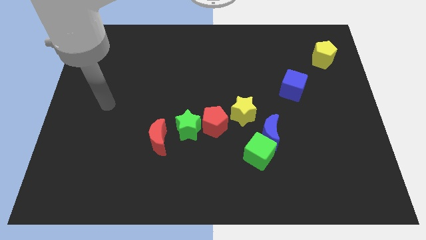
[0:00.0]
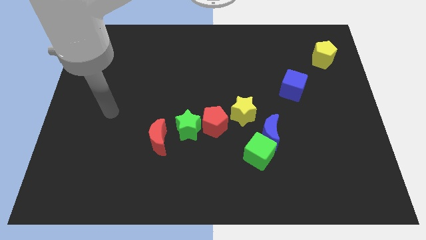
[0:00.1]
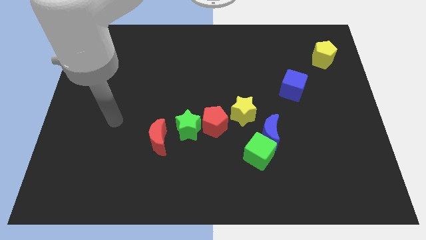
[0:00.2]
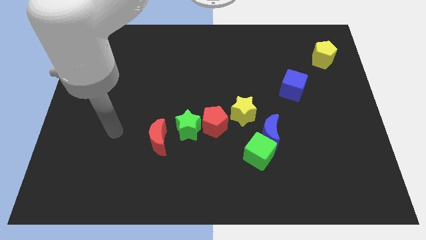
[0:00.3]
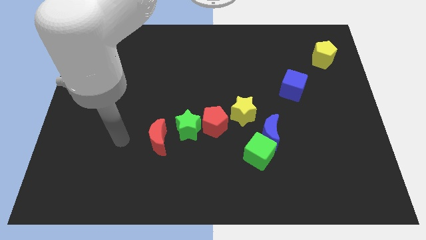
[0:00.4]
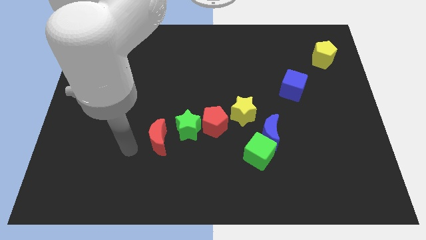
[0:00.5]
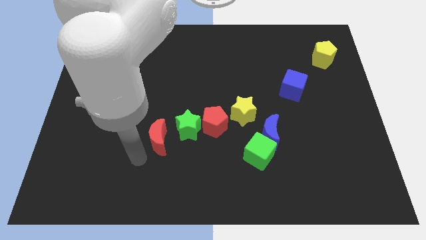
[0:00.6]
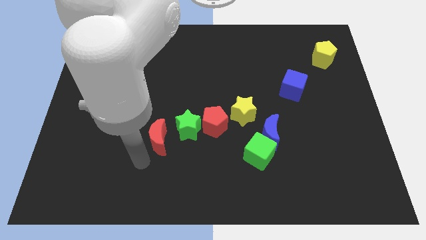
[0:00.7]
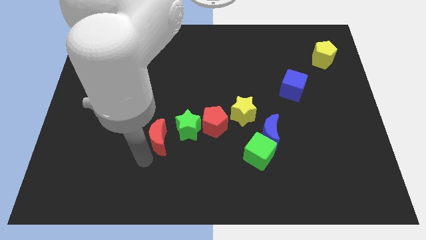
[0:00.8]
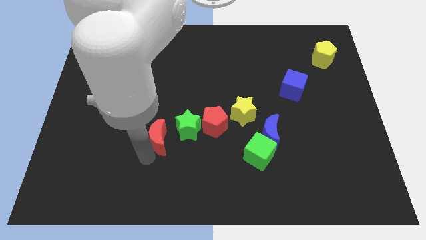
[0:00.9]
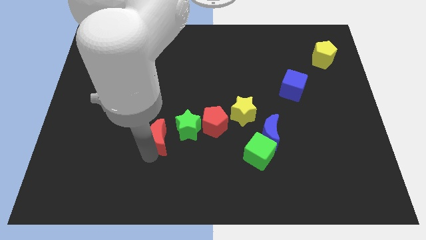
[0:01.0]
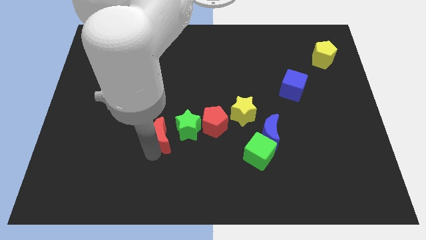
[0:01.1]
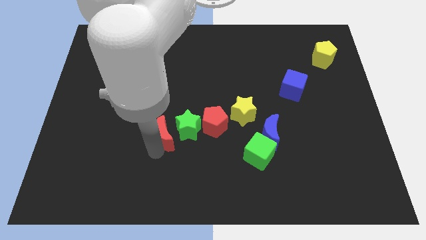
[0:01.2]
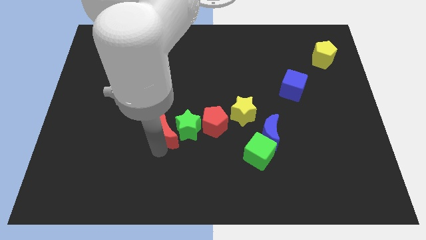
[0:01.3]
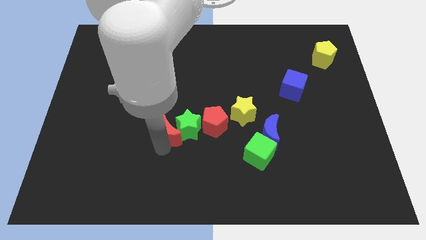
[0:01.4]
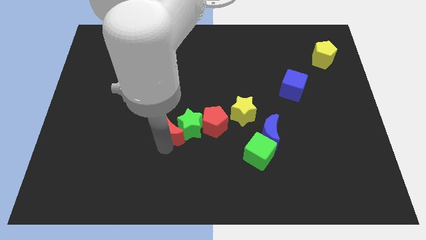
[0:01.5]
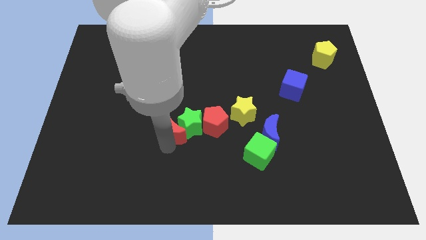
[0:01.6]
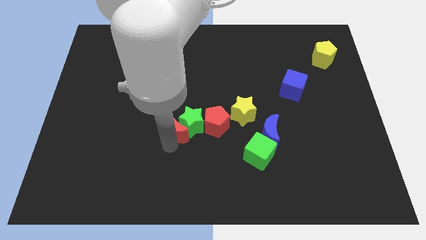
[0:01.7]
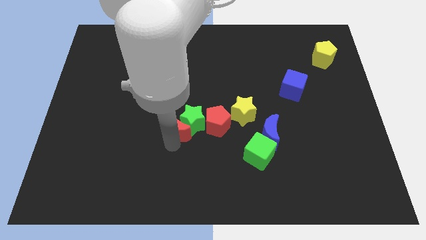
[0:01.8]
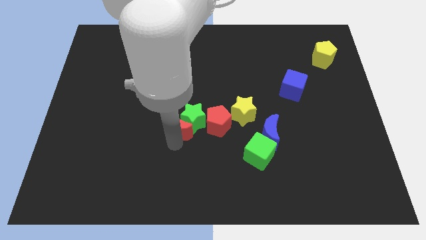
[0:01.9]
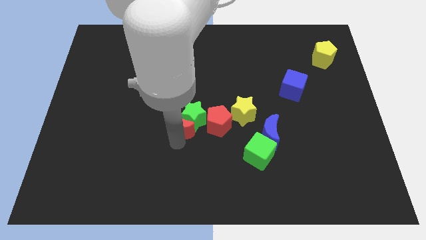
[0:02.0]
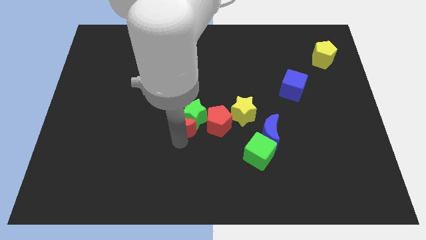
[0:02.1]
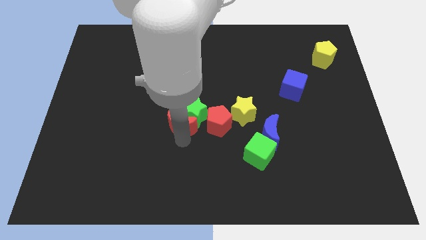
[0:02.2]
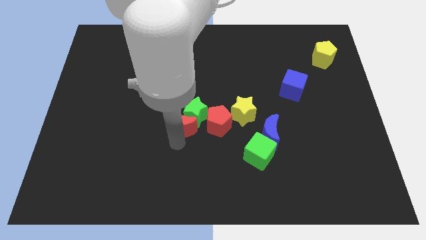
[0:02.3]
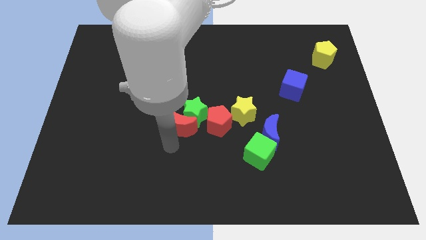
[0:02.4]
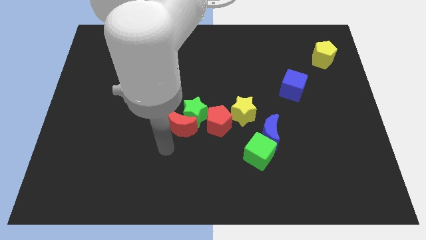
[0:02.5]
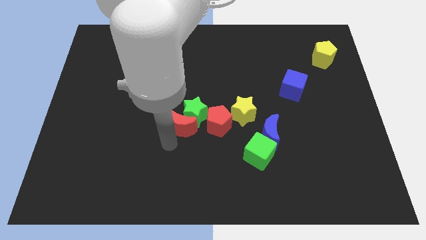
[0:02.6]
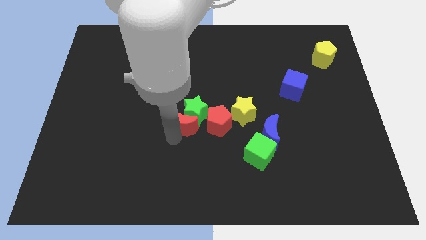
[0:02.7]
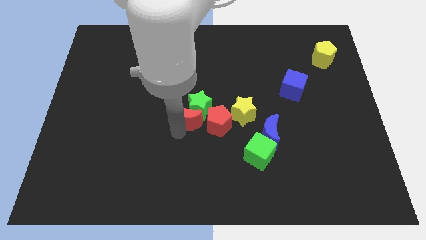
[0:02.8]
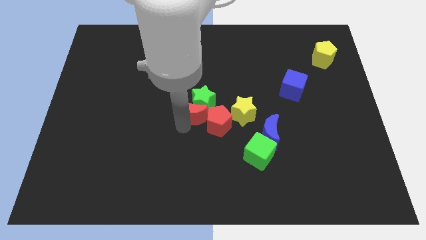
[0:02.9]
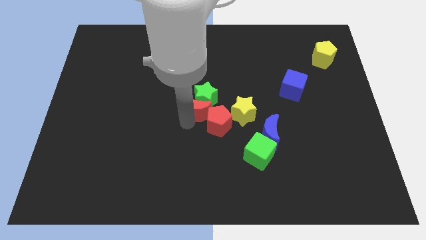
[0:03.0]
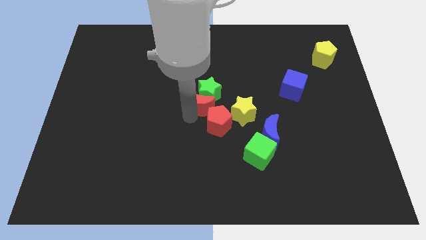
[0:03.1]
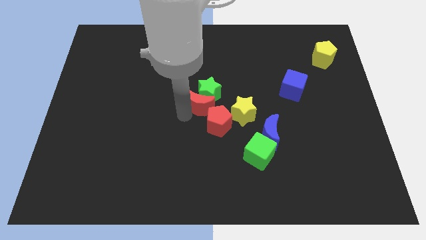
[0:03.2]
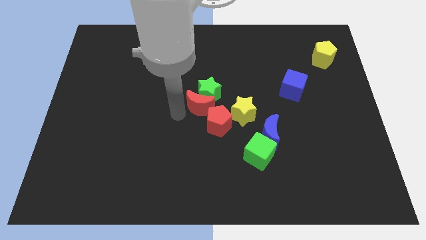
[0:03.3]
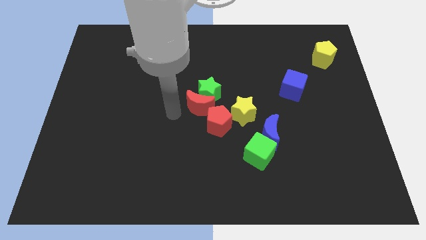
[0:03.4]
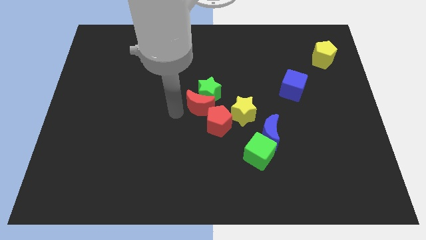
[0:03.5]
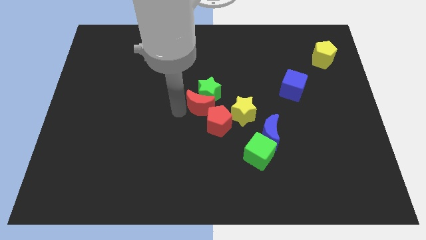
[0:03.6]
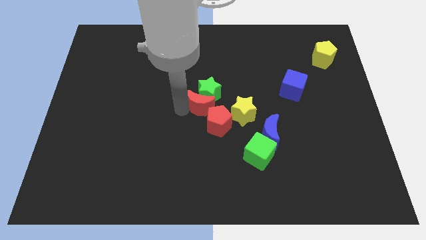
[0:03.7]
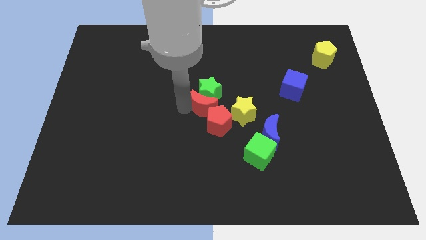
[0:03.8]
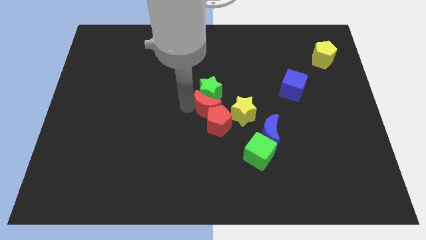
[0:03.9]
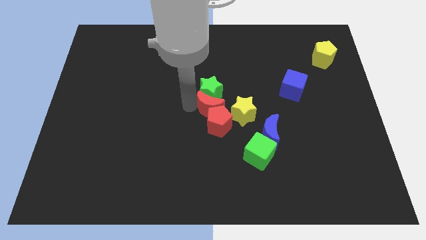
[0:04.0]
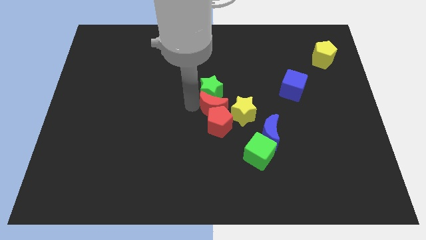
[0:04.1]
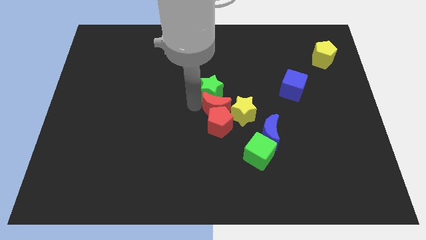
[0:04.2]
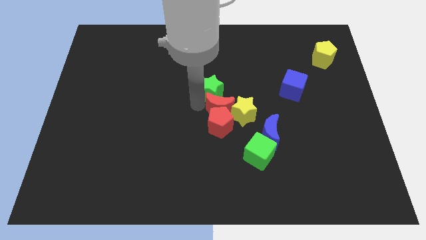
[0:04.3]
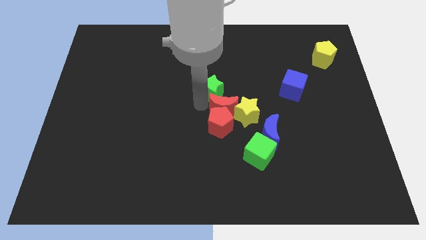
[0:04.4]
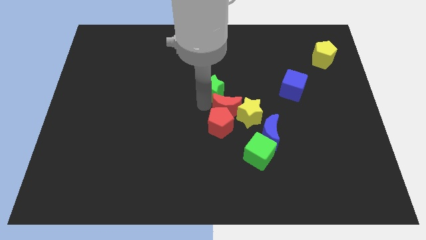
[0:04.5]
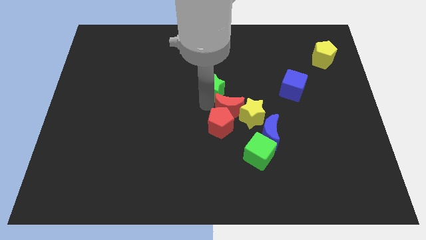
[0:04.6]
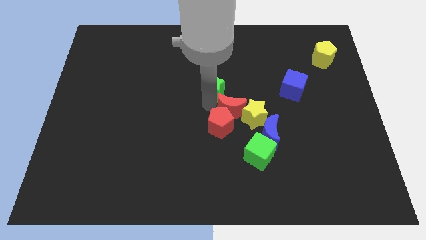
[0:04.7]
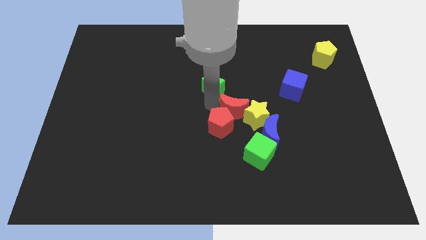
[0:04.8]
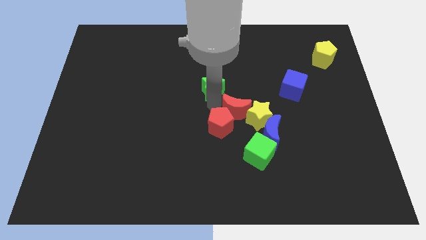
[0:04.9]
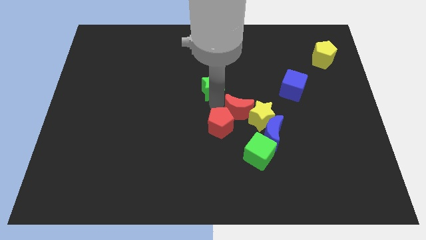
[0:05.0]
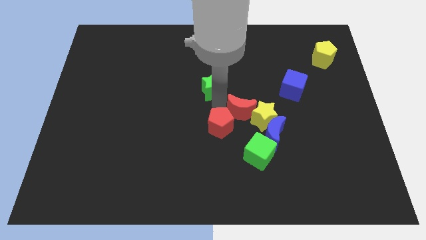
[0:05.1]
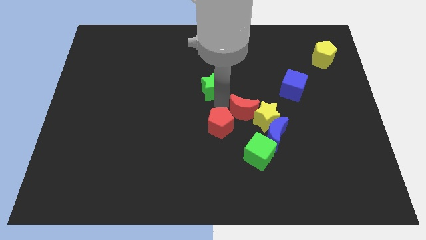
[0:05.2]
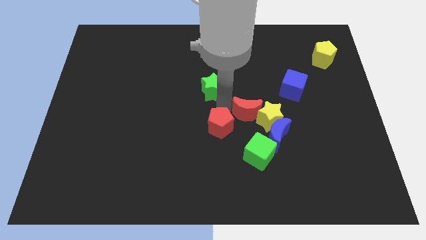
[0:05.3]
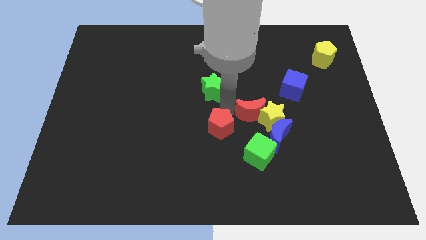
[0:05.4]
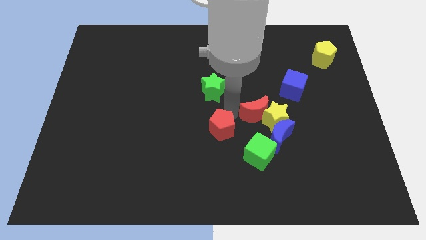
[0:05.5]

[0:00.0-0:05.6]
slide the red moon to the bottom left side of the blue cube

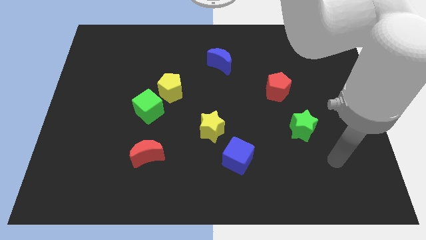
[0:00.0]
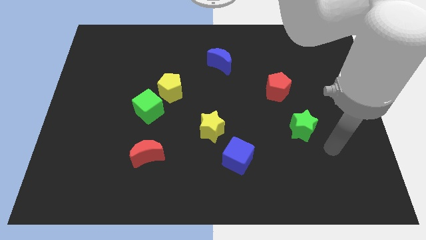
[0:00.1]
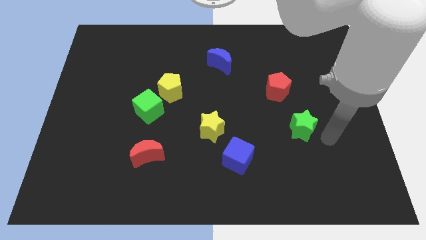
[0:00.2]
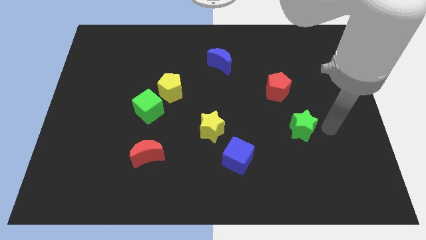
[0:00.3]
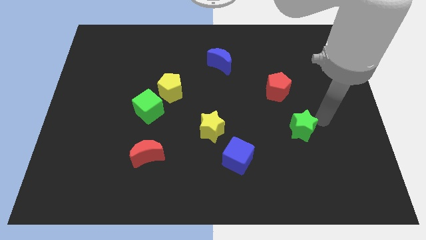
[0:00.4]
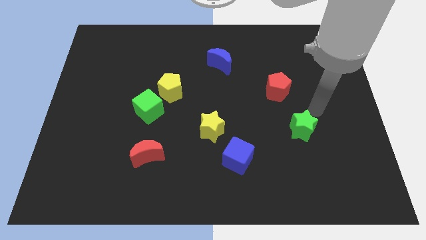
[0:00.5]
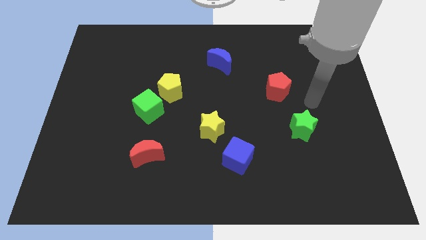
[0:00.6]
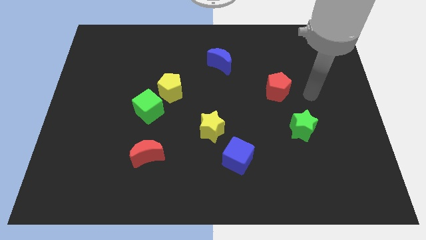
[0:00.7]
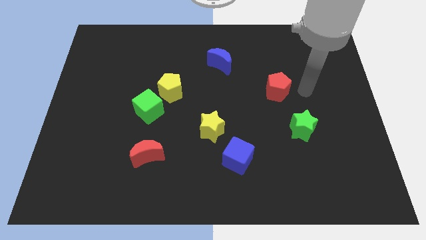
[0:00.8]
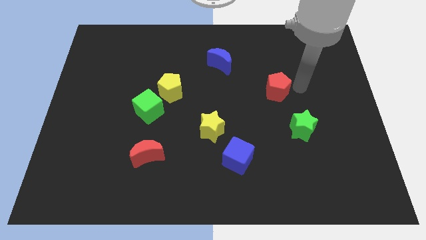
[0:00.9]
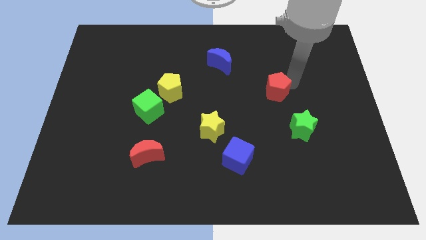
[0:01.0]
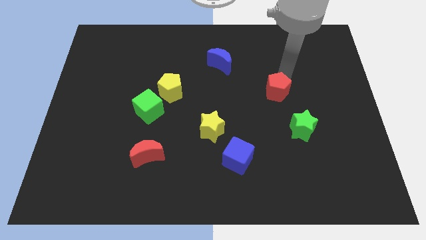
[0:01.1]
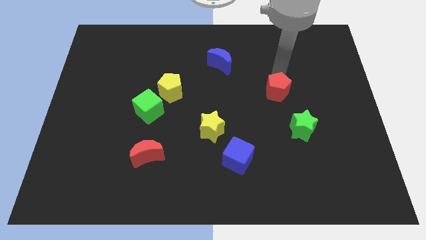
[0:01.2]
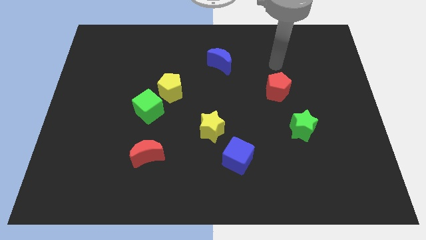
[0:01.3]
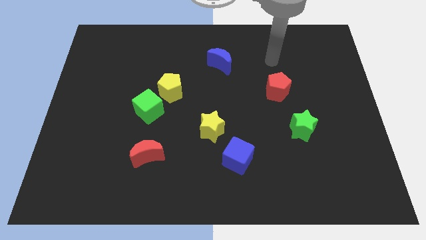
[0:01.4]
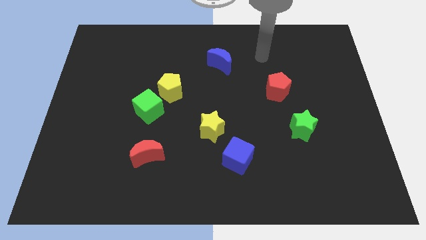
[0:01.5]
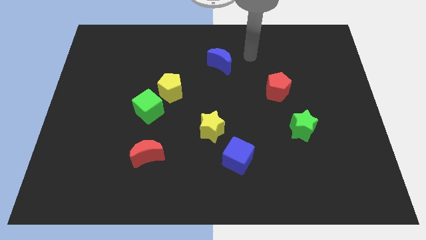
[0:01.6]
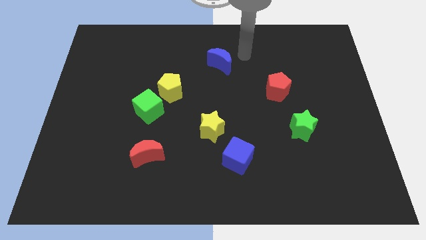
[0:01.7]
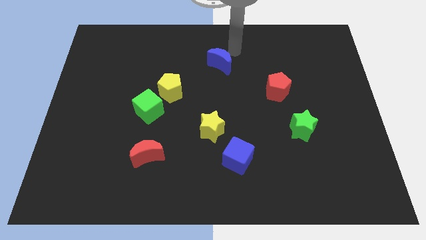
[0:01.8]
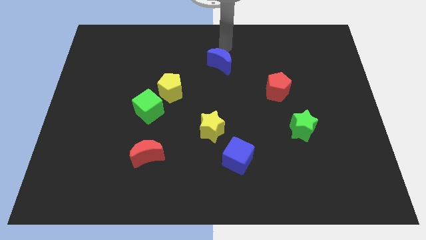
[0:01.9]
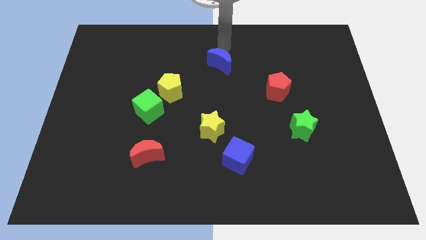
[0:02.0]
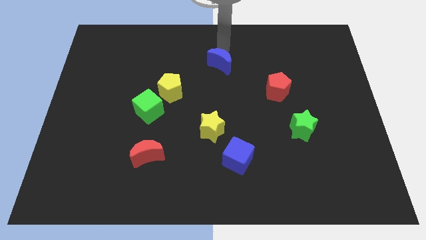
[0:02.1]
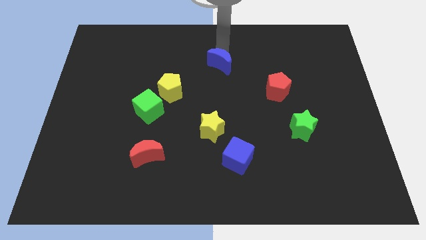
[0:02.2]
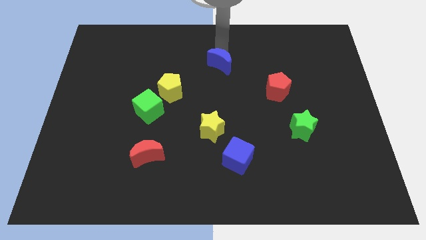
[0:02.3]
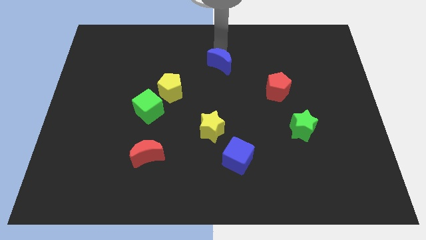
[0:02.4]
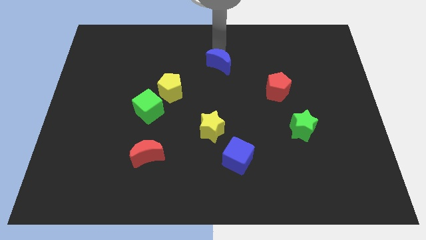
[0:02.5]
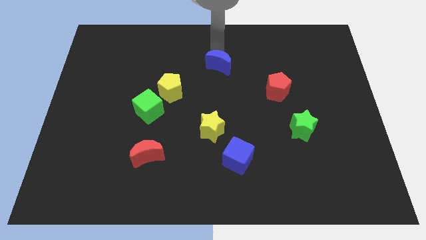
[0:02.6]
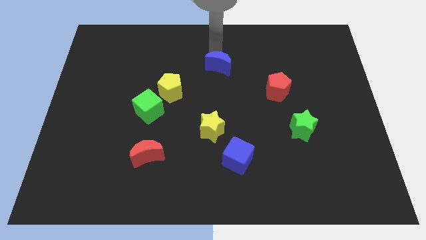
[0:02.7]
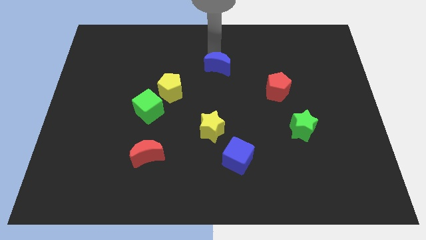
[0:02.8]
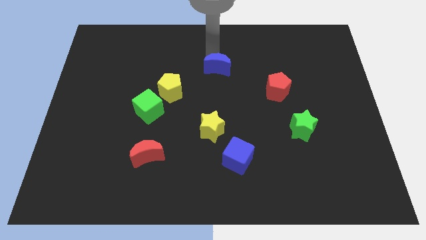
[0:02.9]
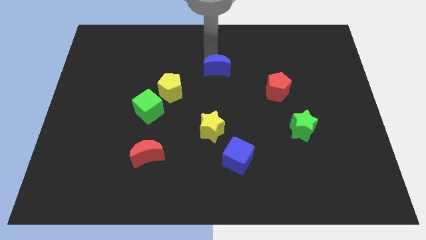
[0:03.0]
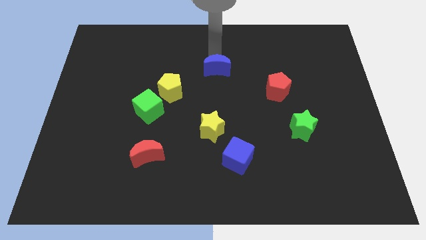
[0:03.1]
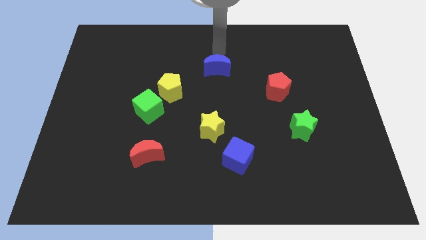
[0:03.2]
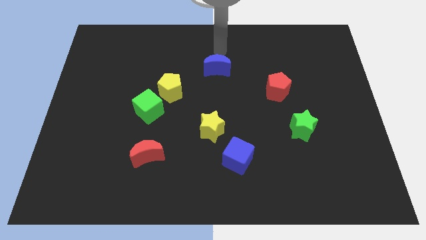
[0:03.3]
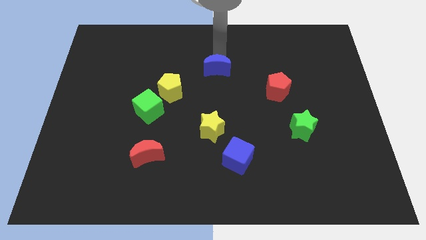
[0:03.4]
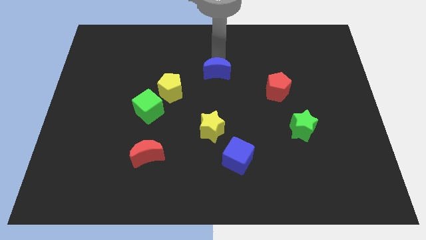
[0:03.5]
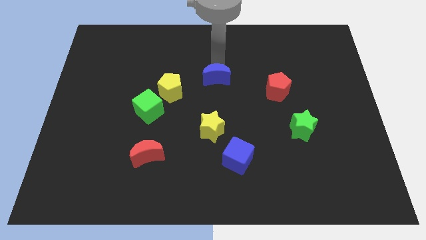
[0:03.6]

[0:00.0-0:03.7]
push the blue moon above the yellow star
